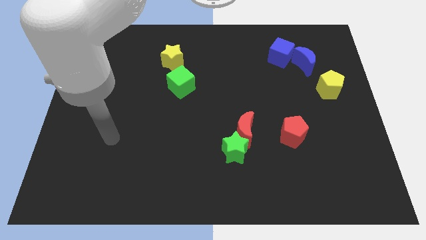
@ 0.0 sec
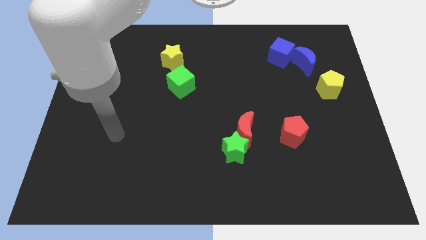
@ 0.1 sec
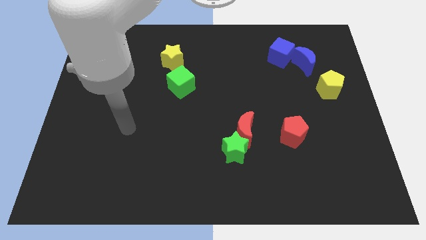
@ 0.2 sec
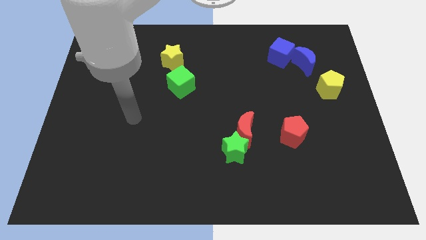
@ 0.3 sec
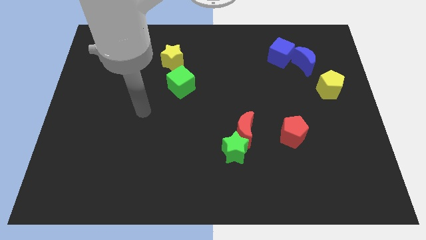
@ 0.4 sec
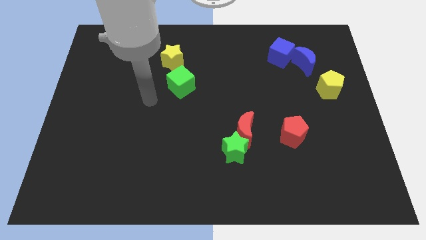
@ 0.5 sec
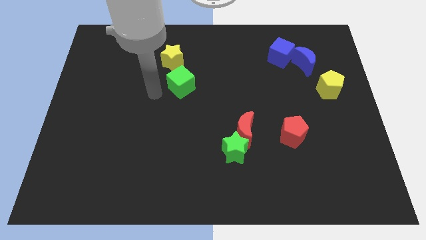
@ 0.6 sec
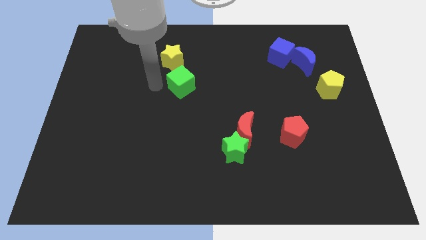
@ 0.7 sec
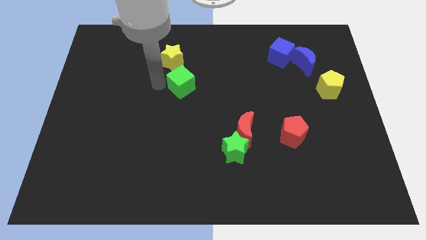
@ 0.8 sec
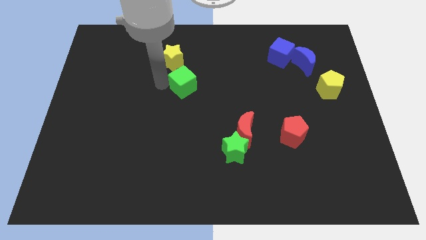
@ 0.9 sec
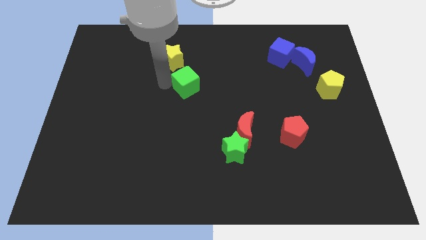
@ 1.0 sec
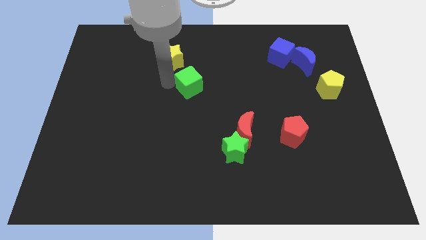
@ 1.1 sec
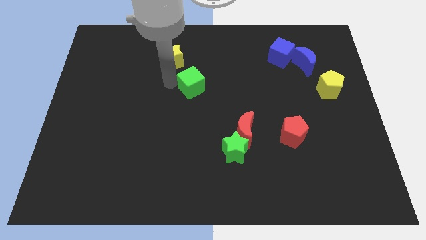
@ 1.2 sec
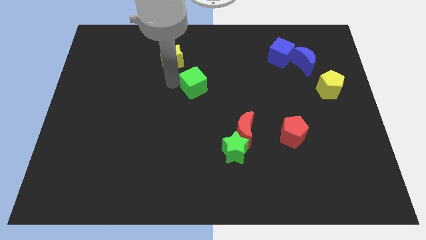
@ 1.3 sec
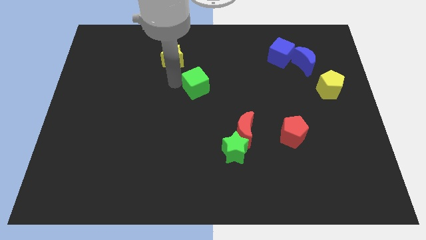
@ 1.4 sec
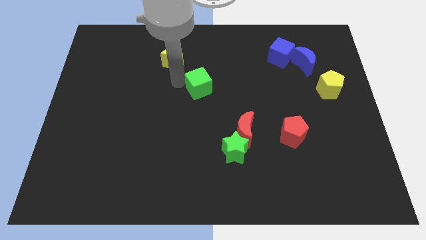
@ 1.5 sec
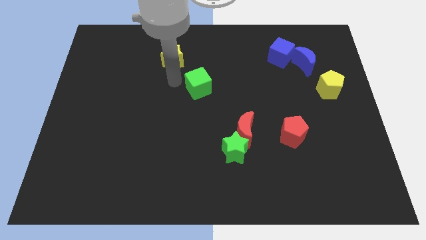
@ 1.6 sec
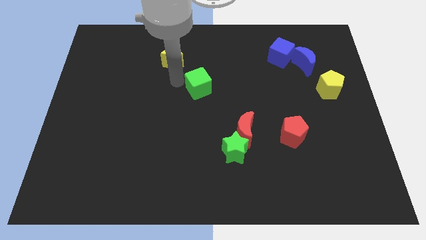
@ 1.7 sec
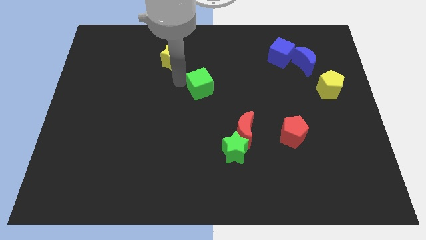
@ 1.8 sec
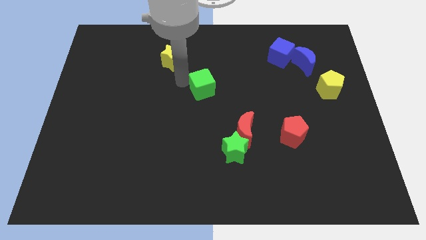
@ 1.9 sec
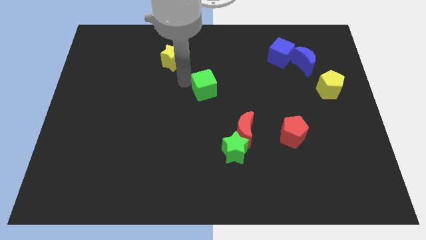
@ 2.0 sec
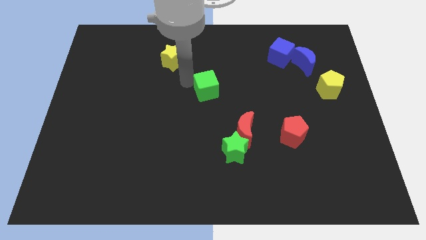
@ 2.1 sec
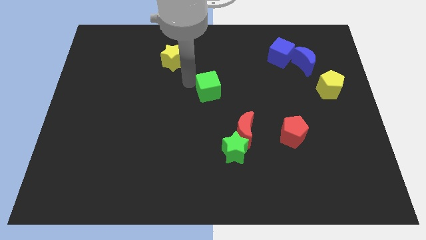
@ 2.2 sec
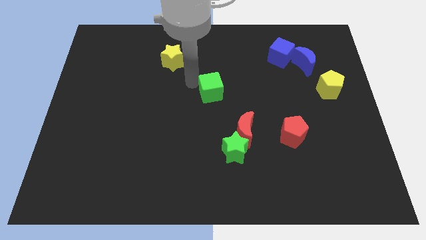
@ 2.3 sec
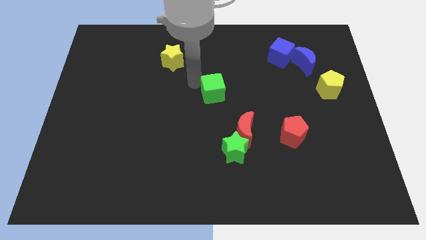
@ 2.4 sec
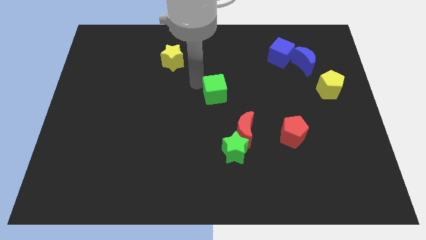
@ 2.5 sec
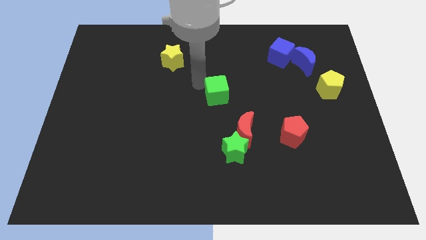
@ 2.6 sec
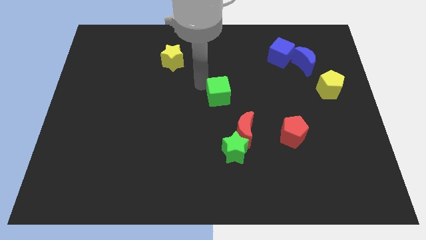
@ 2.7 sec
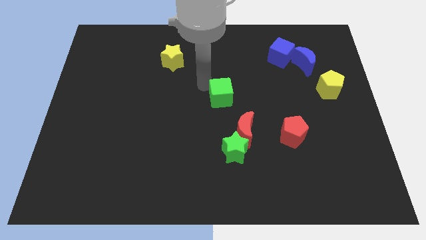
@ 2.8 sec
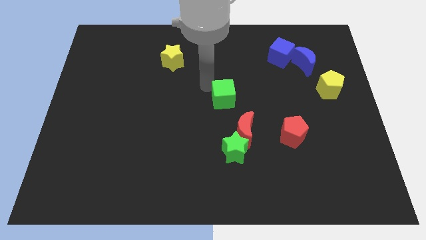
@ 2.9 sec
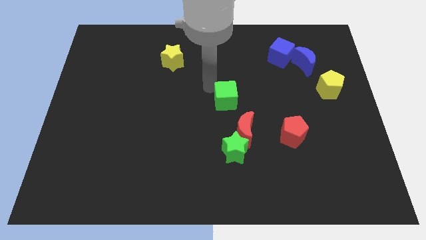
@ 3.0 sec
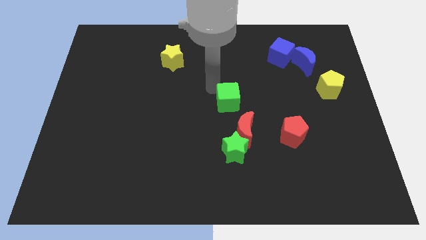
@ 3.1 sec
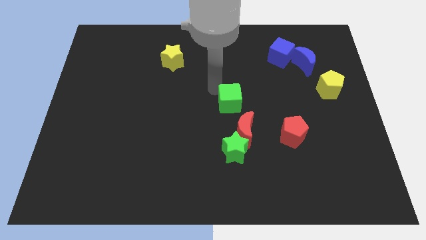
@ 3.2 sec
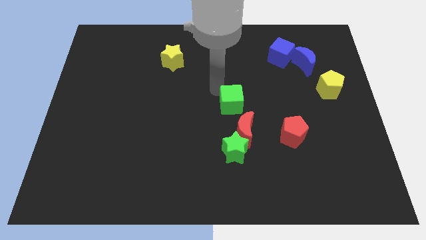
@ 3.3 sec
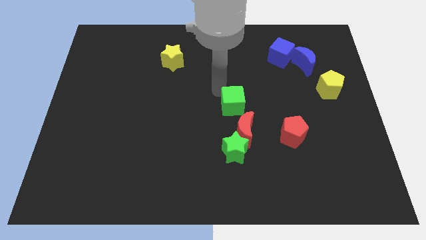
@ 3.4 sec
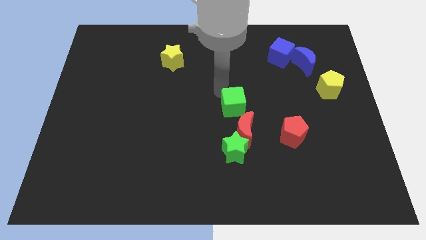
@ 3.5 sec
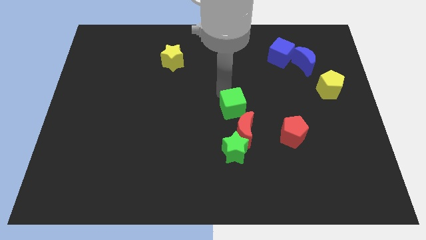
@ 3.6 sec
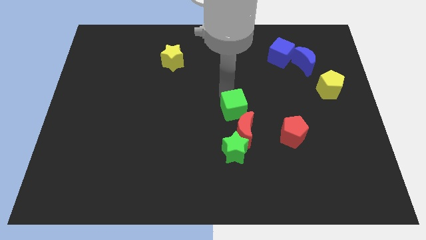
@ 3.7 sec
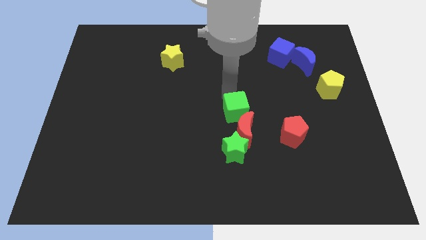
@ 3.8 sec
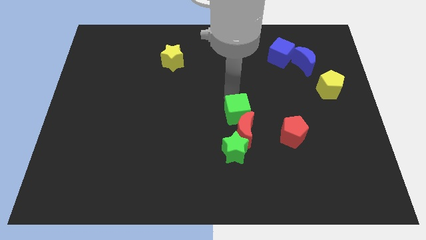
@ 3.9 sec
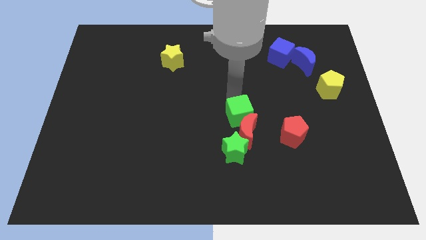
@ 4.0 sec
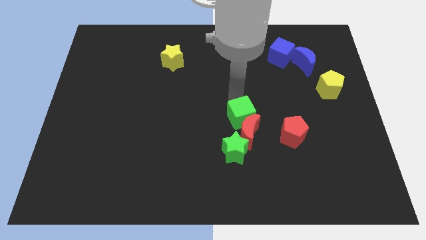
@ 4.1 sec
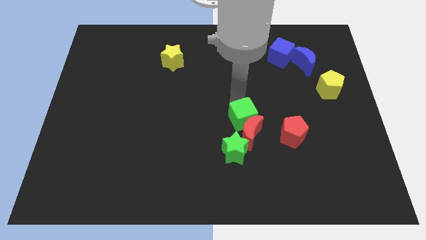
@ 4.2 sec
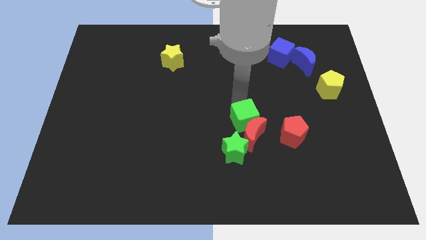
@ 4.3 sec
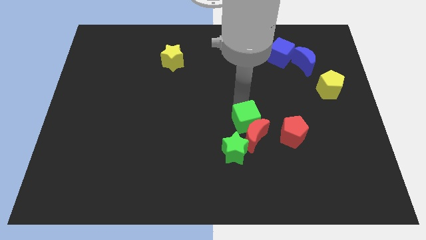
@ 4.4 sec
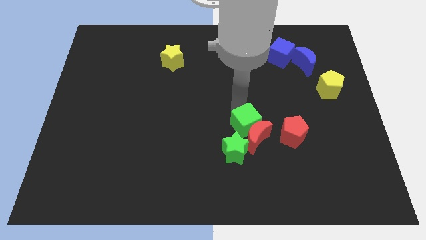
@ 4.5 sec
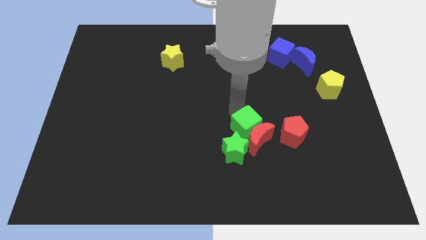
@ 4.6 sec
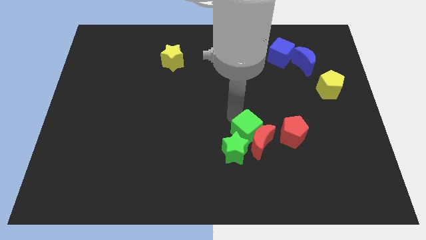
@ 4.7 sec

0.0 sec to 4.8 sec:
push the green cube downwards and to the right diagonally

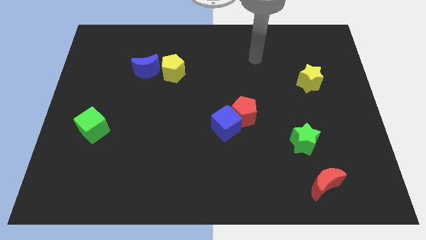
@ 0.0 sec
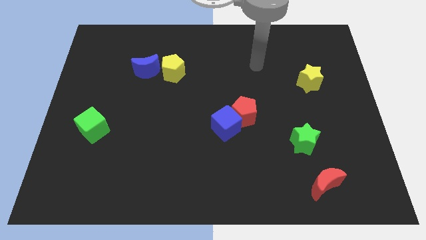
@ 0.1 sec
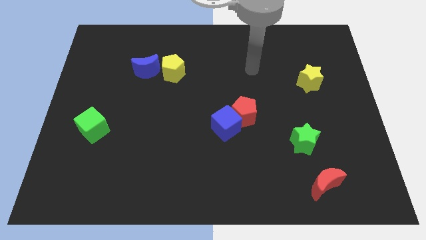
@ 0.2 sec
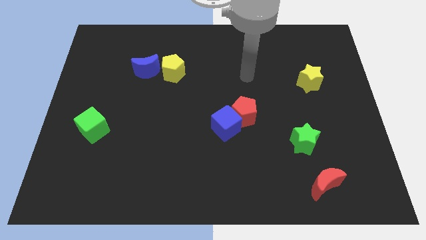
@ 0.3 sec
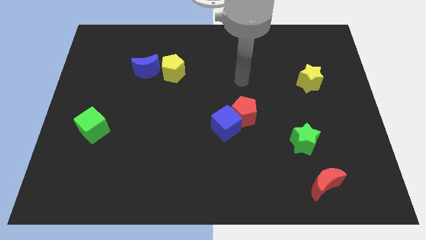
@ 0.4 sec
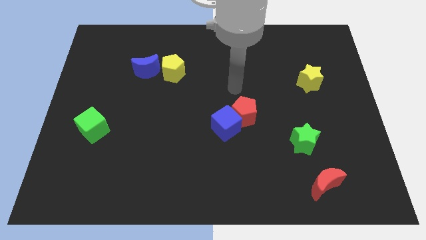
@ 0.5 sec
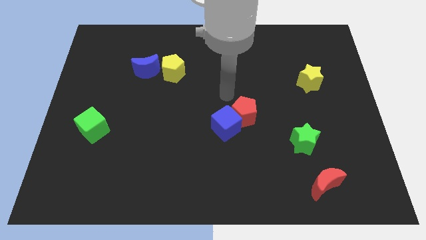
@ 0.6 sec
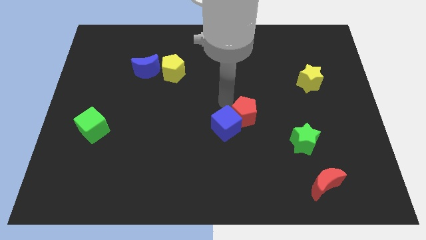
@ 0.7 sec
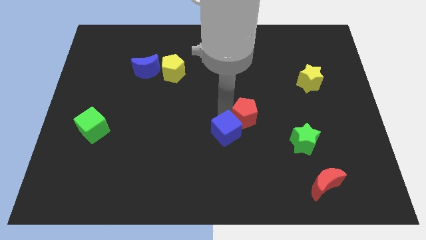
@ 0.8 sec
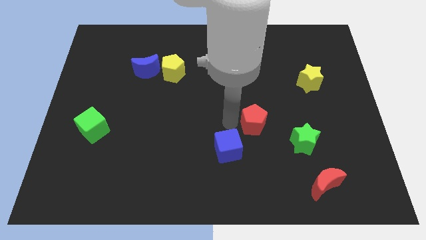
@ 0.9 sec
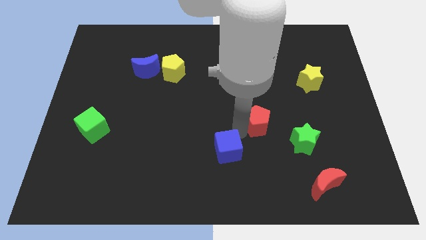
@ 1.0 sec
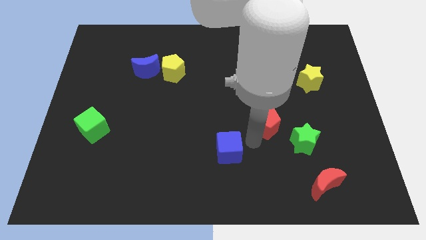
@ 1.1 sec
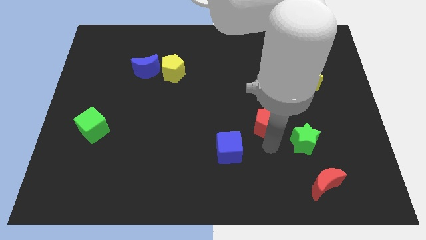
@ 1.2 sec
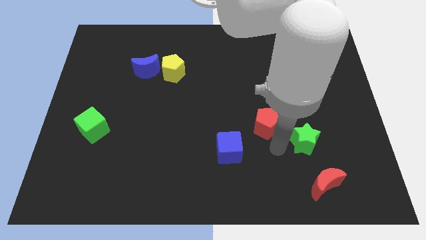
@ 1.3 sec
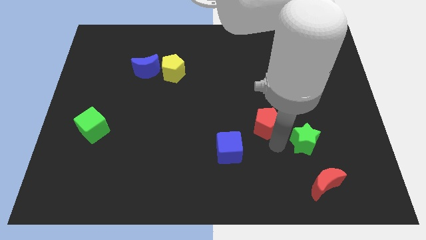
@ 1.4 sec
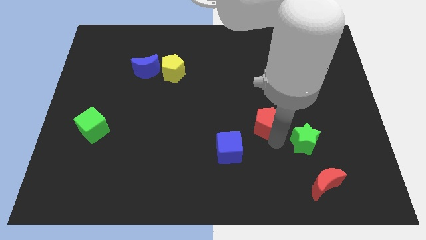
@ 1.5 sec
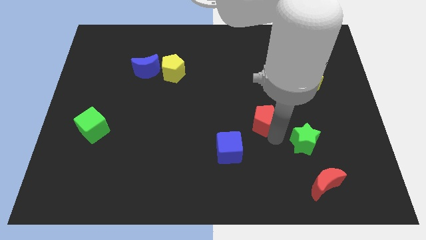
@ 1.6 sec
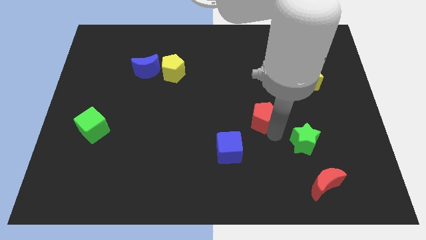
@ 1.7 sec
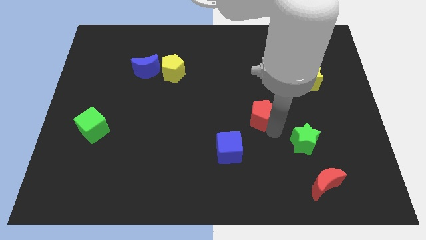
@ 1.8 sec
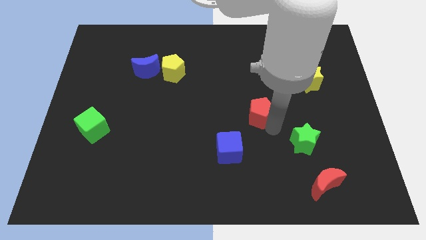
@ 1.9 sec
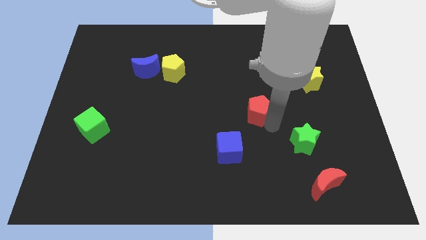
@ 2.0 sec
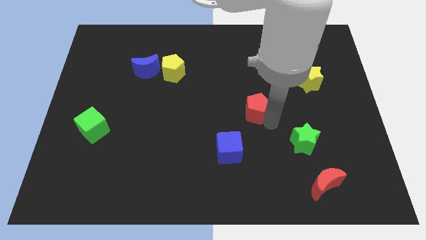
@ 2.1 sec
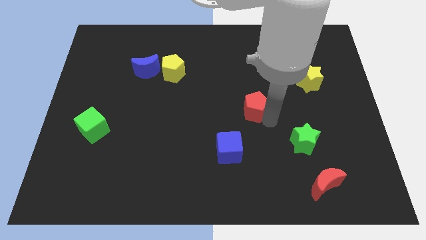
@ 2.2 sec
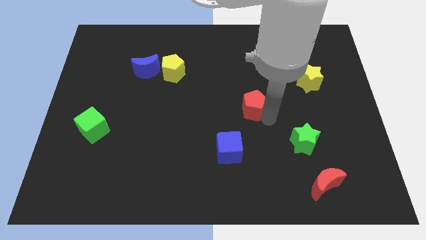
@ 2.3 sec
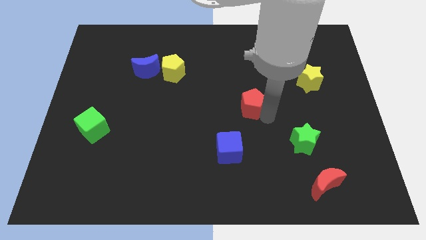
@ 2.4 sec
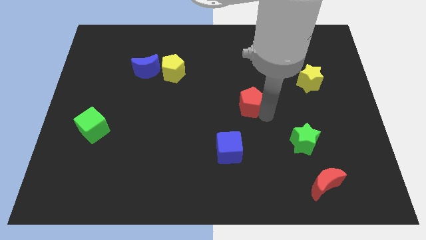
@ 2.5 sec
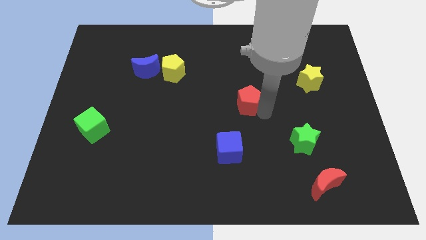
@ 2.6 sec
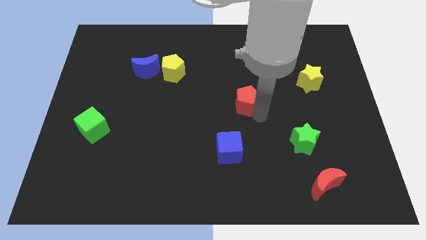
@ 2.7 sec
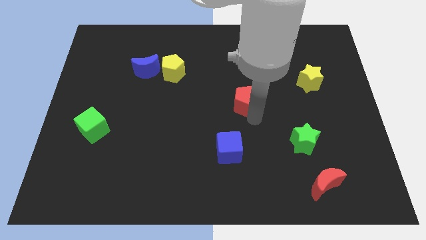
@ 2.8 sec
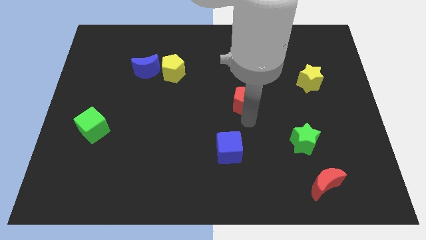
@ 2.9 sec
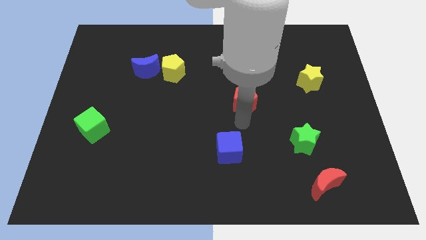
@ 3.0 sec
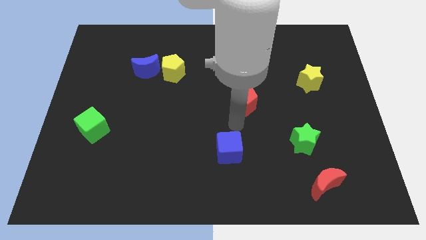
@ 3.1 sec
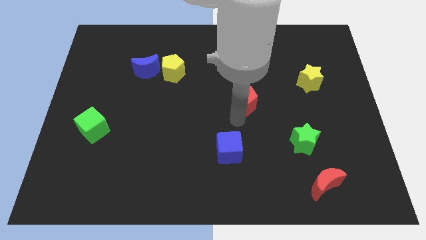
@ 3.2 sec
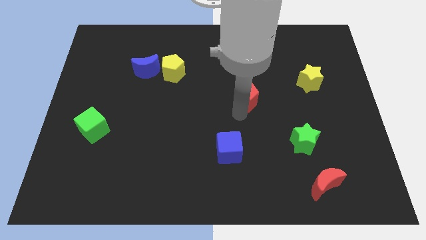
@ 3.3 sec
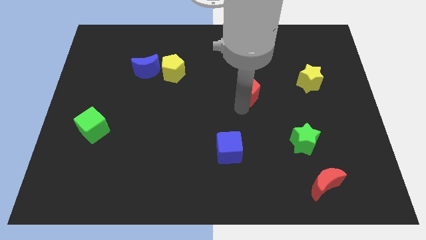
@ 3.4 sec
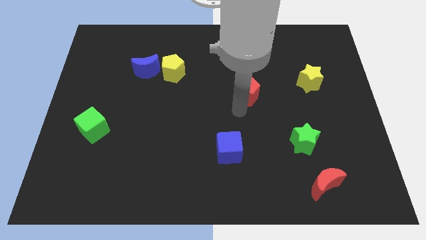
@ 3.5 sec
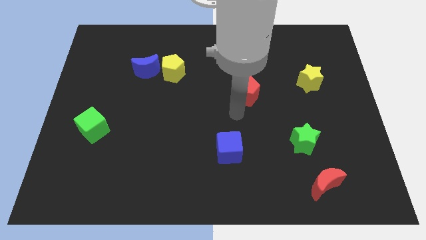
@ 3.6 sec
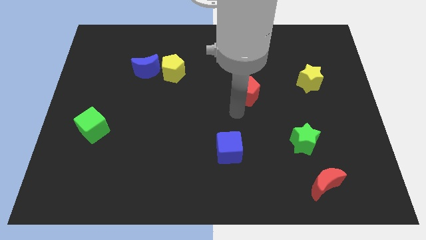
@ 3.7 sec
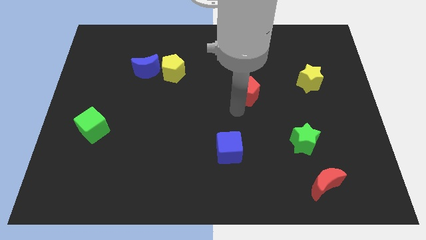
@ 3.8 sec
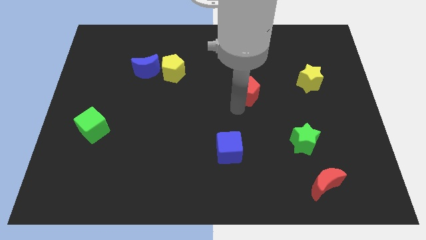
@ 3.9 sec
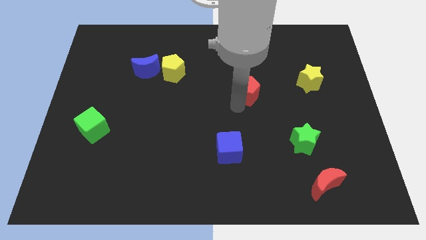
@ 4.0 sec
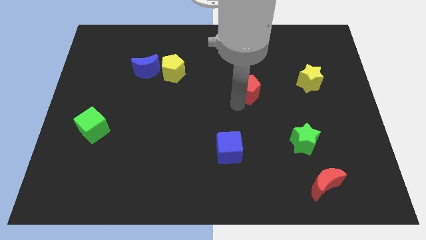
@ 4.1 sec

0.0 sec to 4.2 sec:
slightly slide the red pentagon upwards
